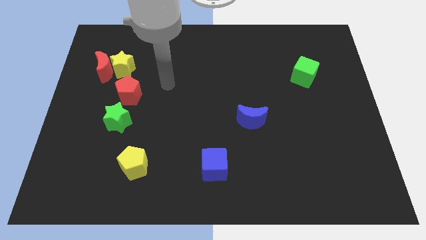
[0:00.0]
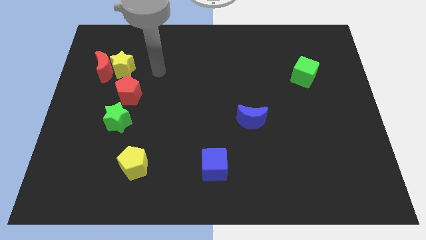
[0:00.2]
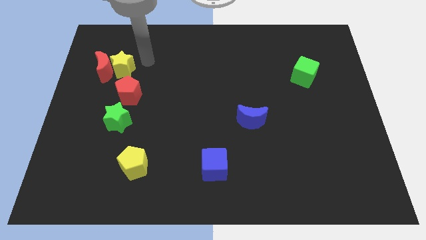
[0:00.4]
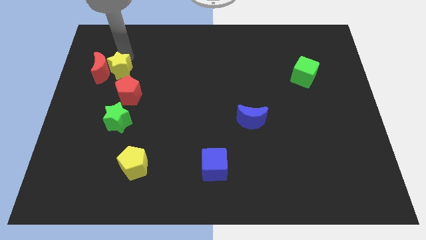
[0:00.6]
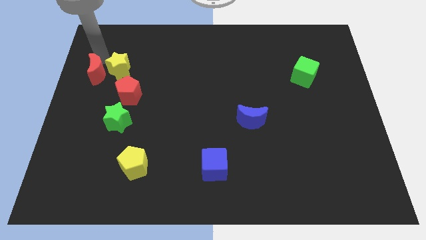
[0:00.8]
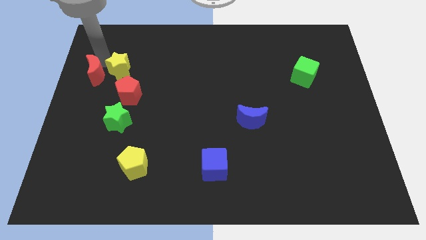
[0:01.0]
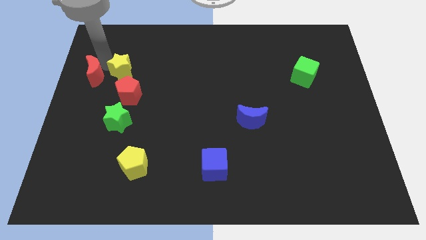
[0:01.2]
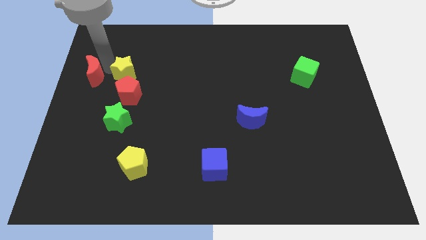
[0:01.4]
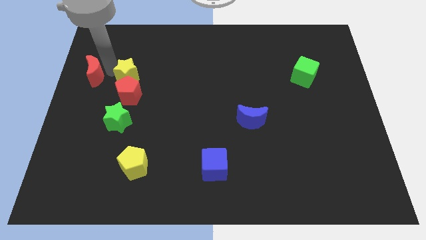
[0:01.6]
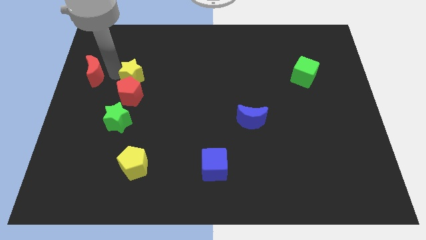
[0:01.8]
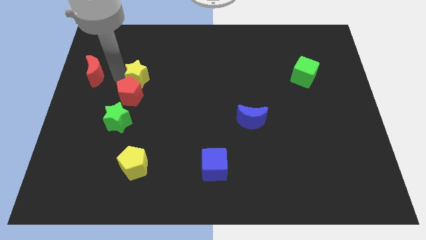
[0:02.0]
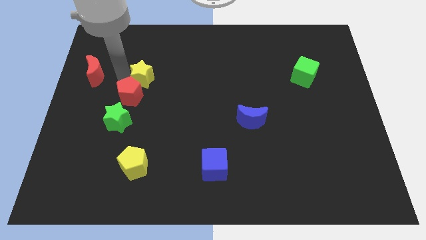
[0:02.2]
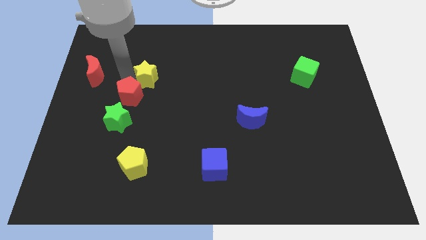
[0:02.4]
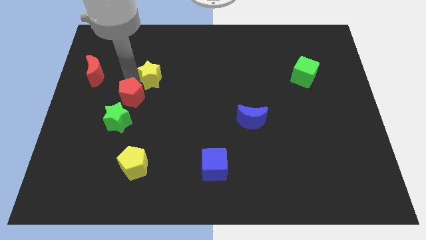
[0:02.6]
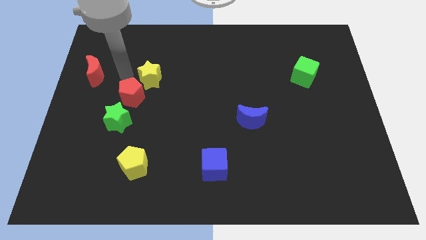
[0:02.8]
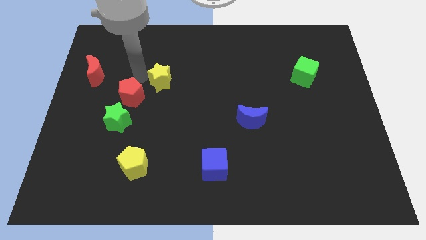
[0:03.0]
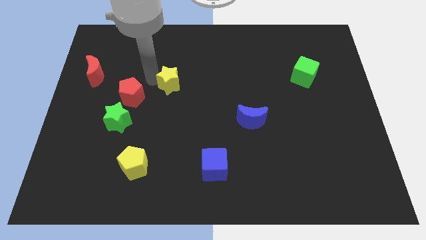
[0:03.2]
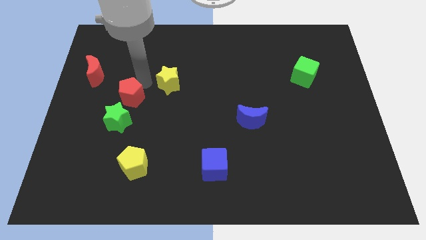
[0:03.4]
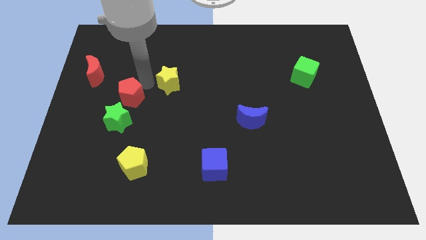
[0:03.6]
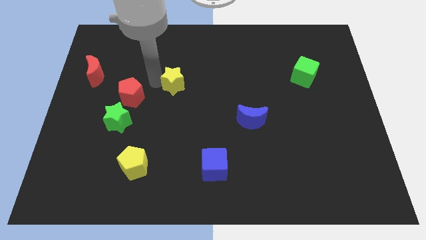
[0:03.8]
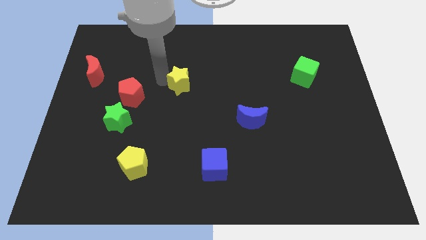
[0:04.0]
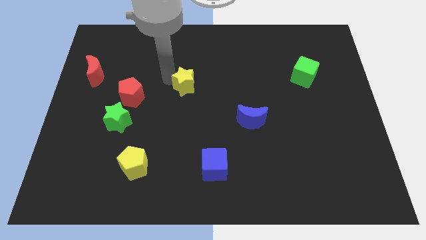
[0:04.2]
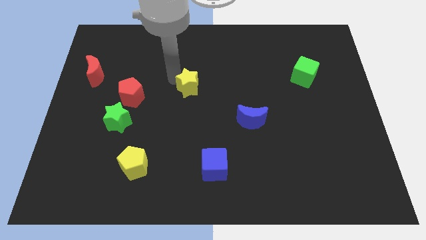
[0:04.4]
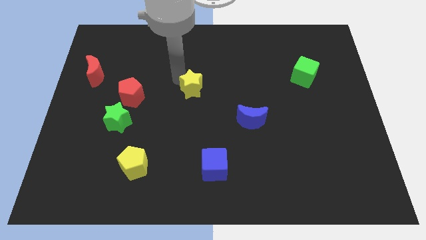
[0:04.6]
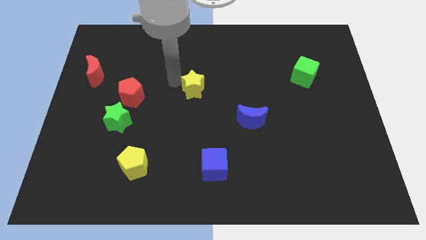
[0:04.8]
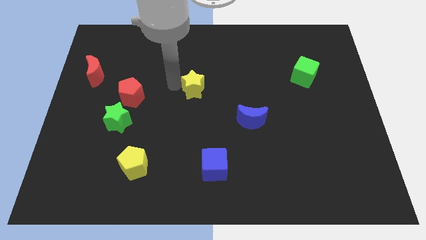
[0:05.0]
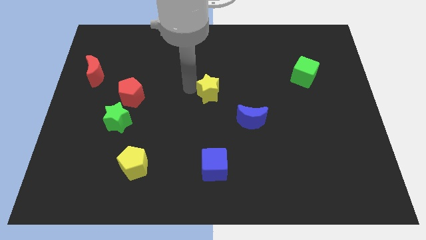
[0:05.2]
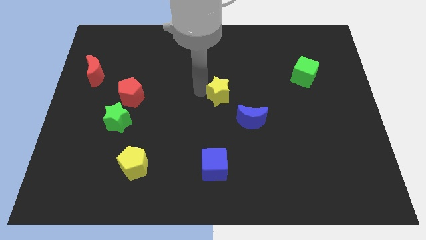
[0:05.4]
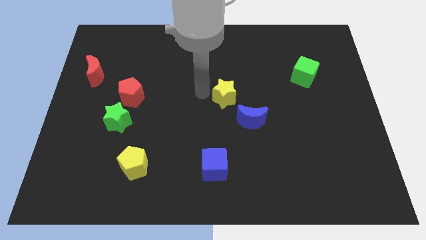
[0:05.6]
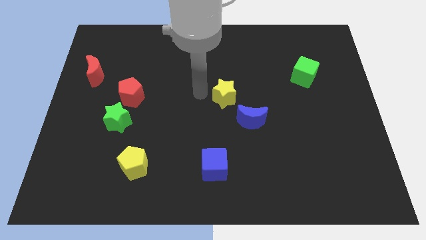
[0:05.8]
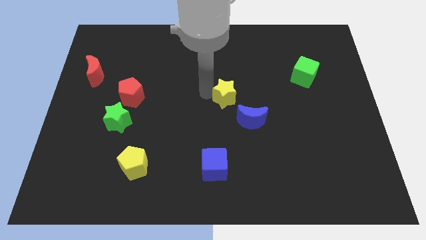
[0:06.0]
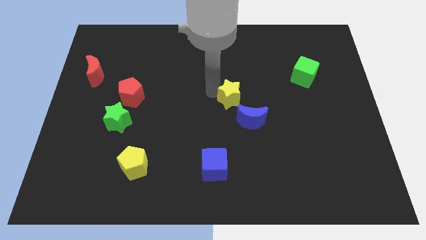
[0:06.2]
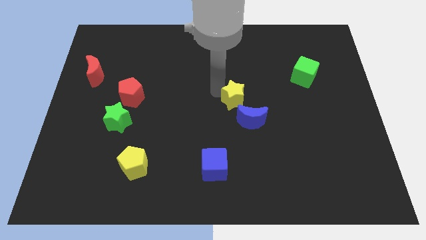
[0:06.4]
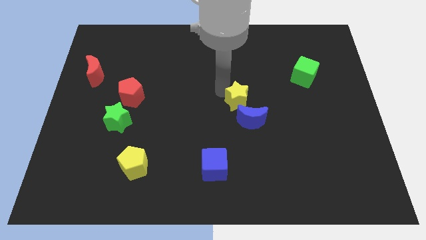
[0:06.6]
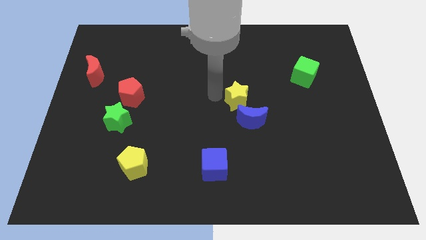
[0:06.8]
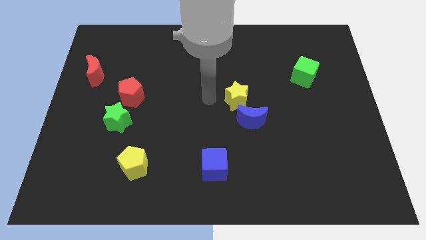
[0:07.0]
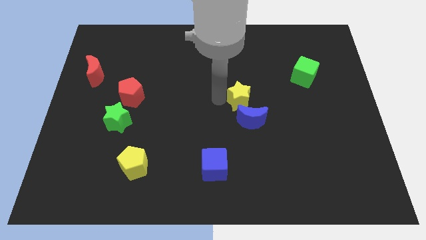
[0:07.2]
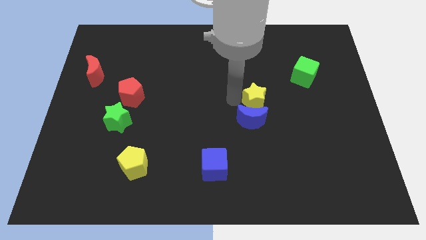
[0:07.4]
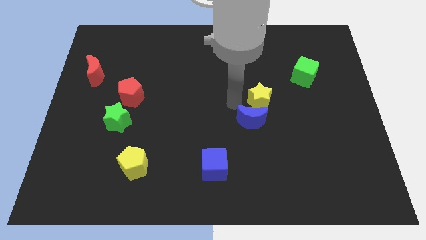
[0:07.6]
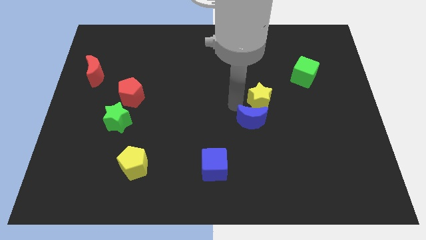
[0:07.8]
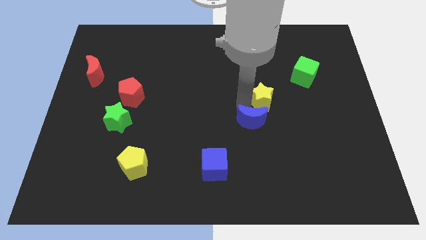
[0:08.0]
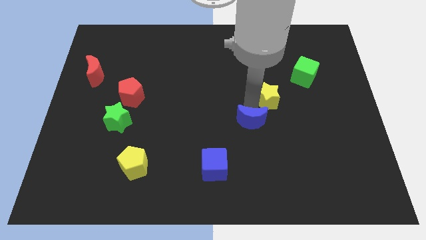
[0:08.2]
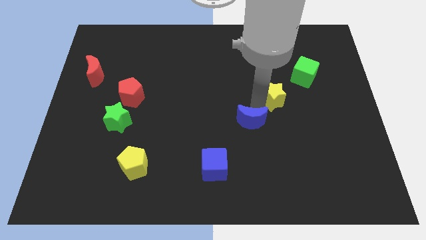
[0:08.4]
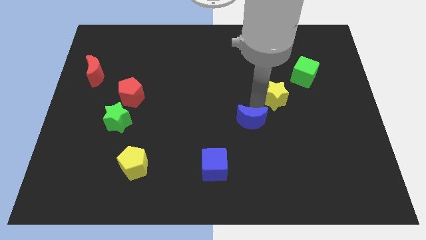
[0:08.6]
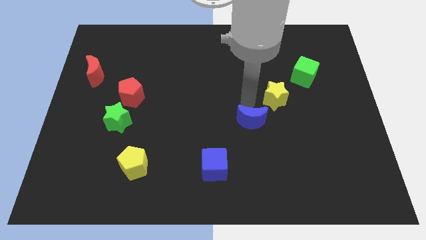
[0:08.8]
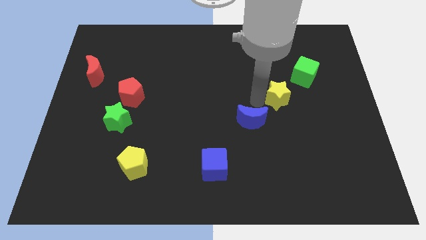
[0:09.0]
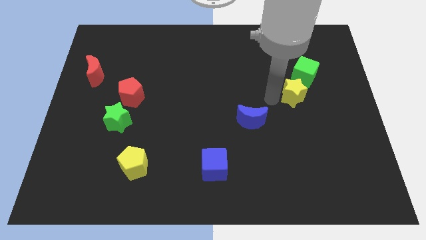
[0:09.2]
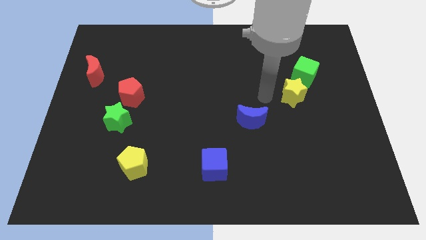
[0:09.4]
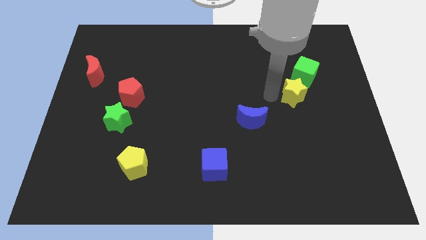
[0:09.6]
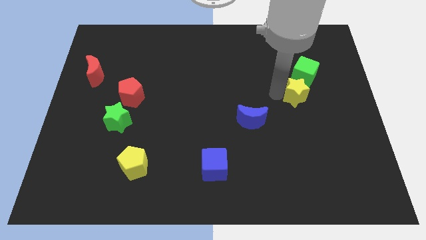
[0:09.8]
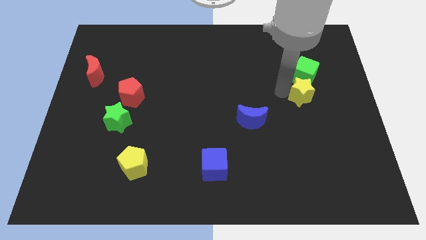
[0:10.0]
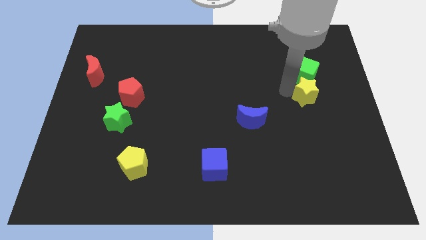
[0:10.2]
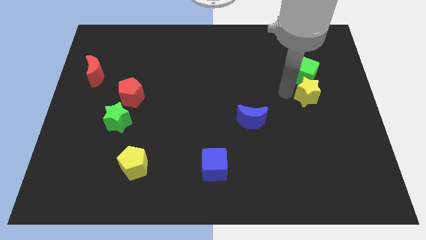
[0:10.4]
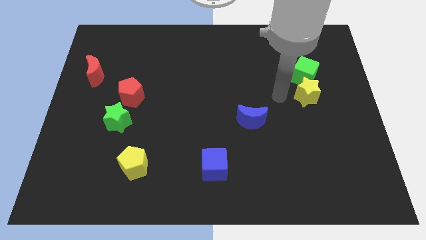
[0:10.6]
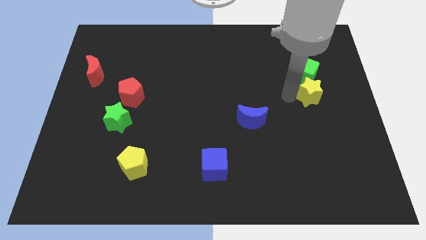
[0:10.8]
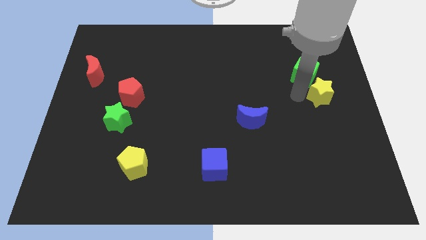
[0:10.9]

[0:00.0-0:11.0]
move the yellow star to the center right

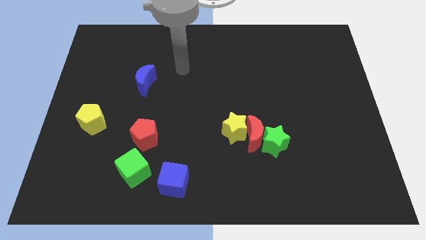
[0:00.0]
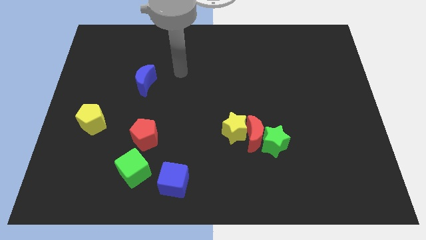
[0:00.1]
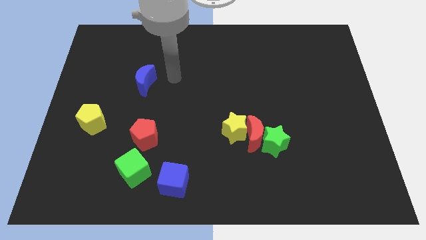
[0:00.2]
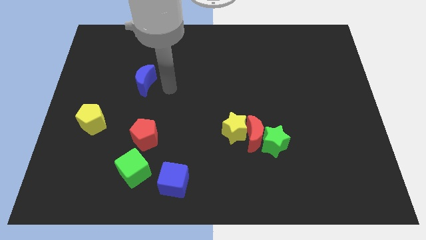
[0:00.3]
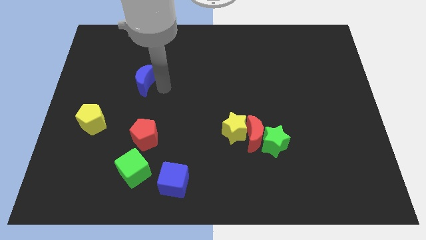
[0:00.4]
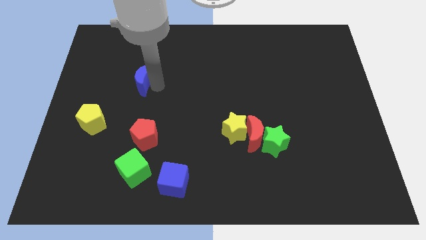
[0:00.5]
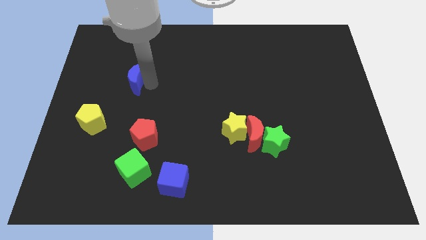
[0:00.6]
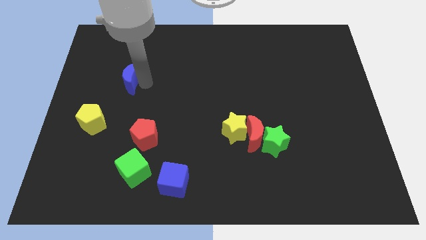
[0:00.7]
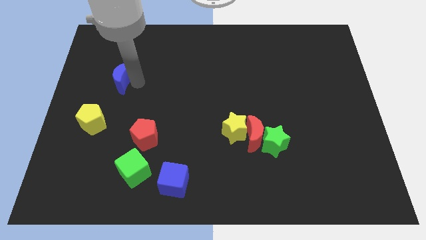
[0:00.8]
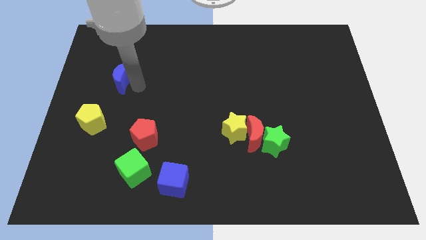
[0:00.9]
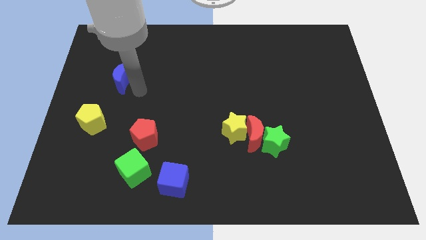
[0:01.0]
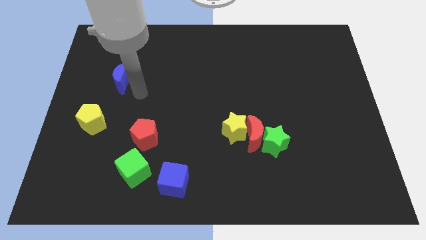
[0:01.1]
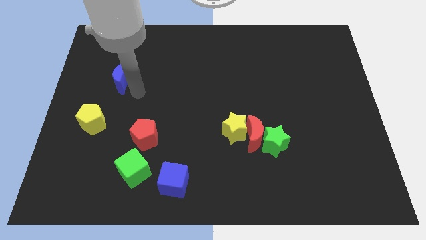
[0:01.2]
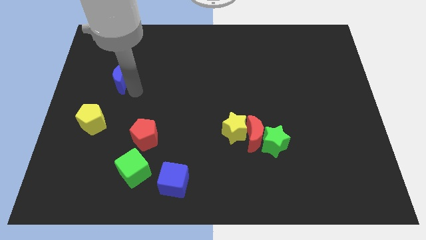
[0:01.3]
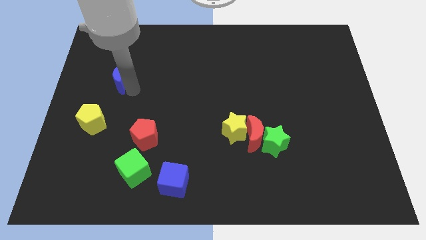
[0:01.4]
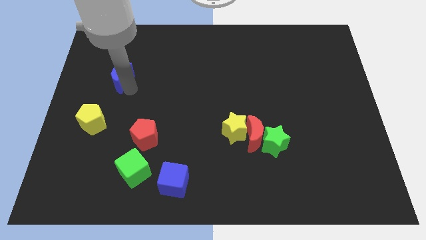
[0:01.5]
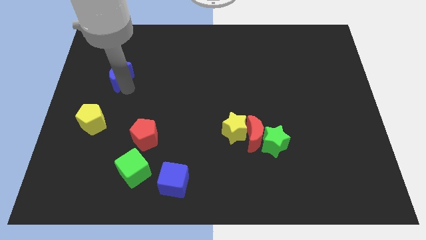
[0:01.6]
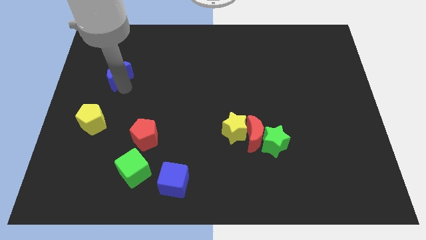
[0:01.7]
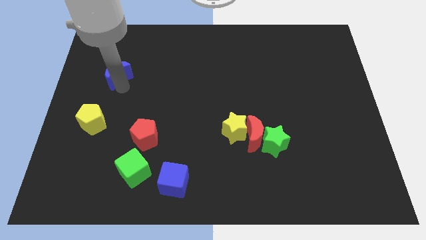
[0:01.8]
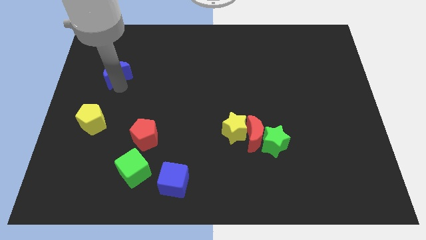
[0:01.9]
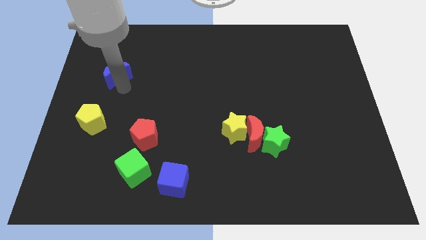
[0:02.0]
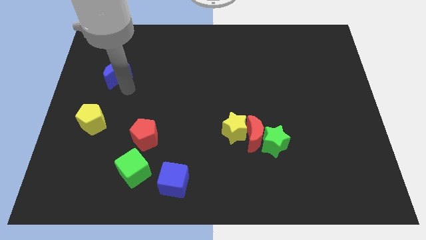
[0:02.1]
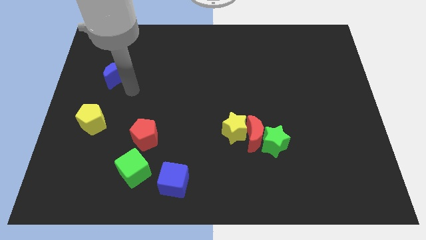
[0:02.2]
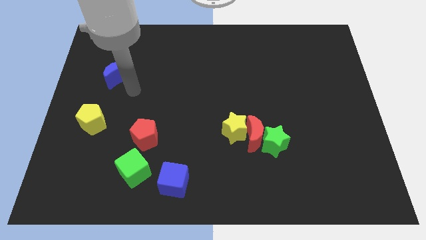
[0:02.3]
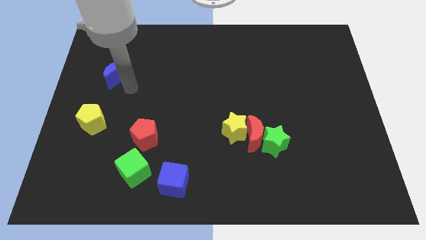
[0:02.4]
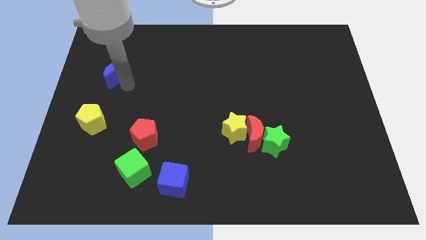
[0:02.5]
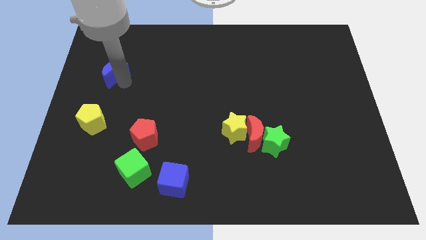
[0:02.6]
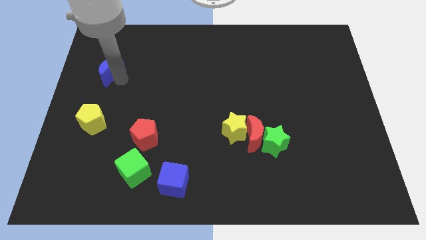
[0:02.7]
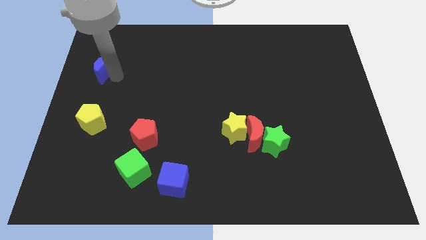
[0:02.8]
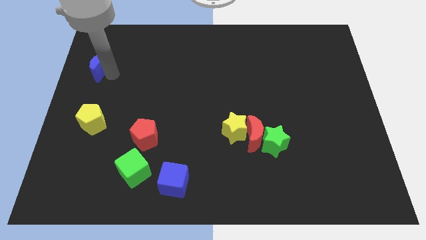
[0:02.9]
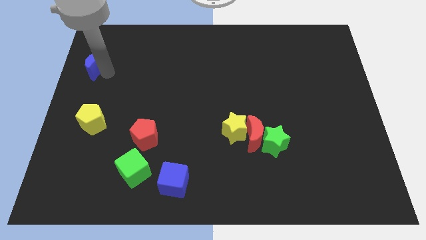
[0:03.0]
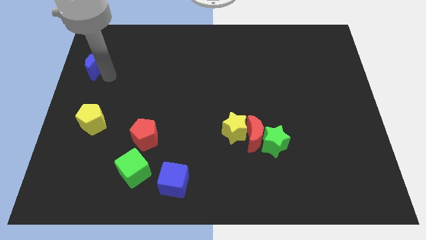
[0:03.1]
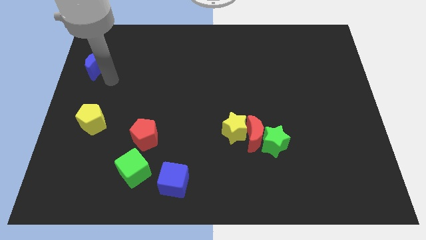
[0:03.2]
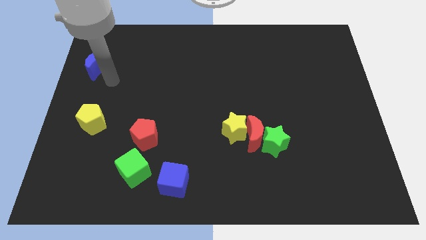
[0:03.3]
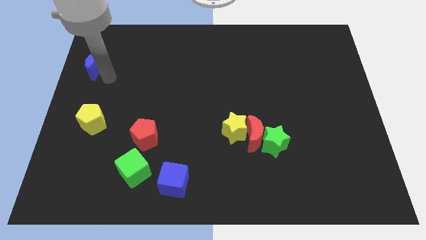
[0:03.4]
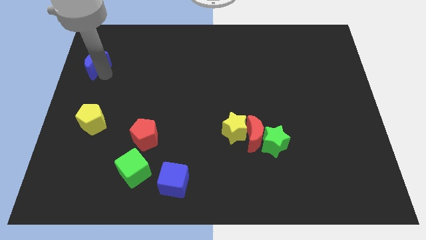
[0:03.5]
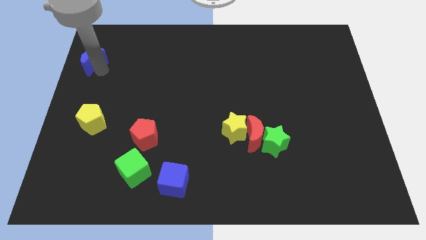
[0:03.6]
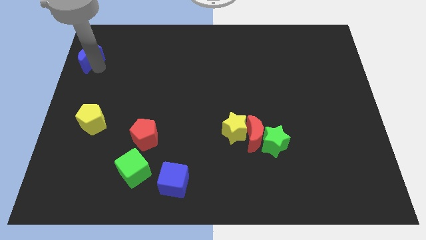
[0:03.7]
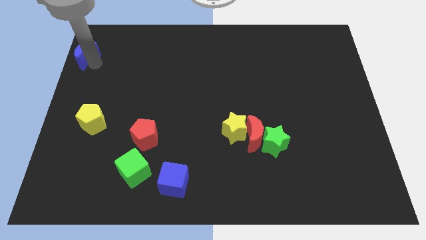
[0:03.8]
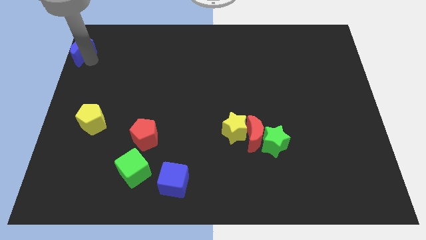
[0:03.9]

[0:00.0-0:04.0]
slide the blue moon to the top left corner
